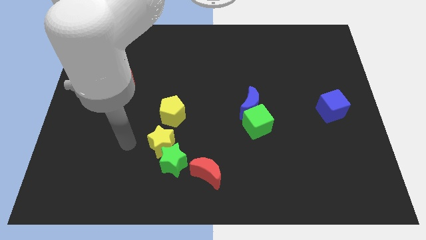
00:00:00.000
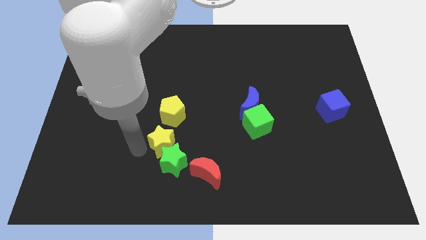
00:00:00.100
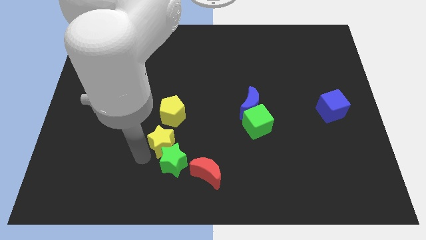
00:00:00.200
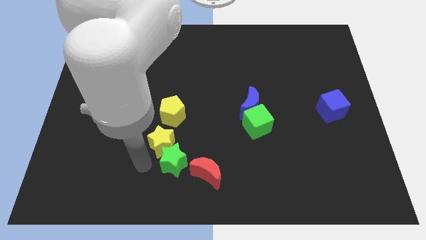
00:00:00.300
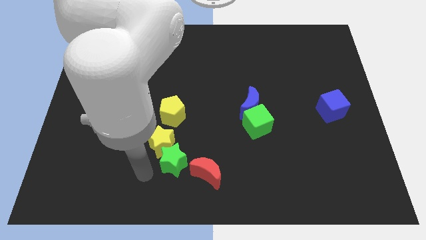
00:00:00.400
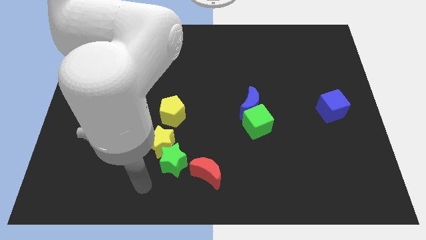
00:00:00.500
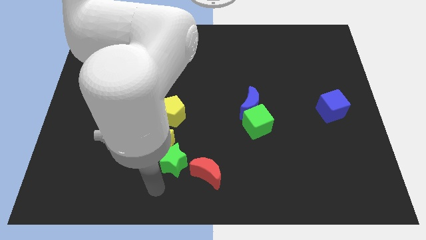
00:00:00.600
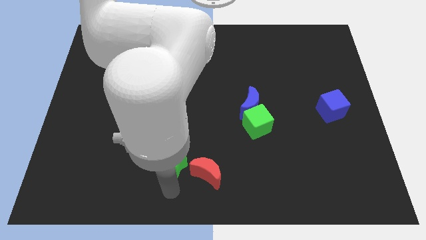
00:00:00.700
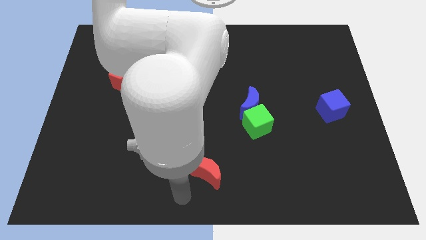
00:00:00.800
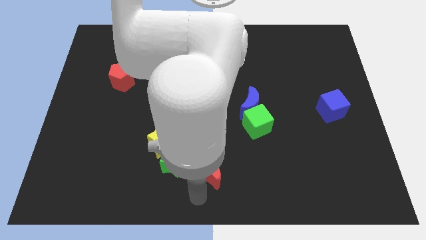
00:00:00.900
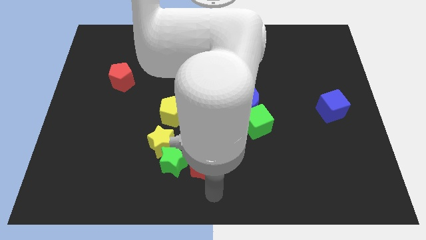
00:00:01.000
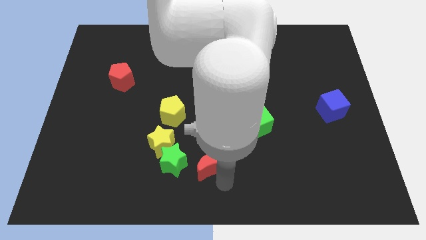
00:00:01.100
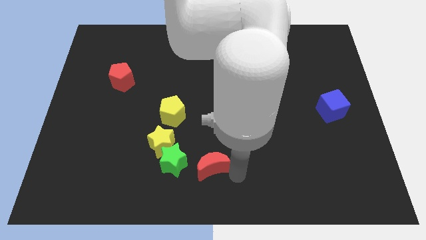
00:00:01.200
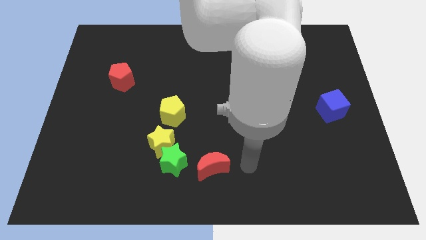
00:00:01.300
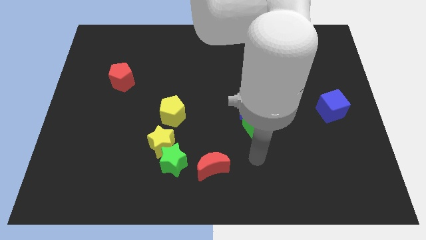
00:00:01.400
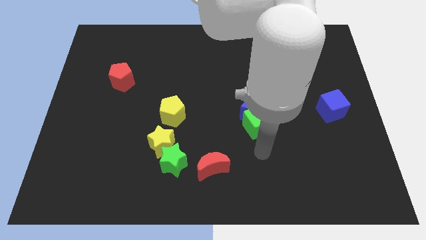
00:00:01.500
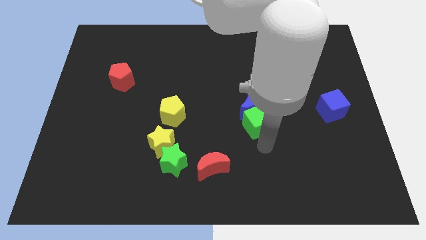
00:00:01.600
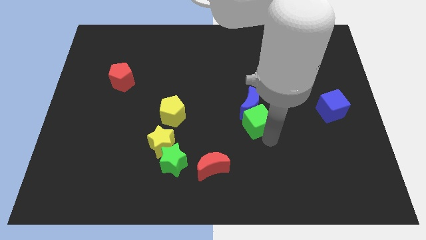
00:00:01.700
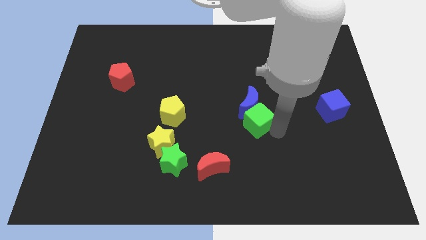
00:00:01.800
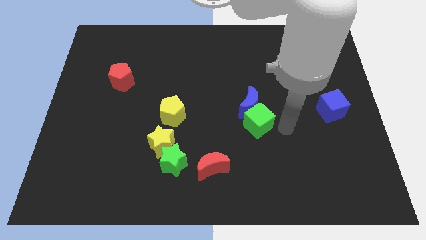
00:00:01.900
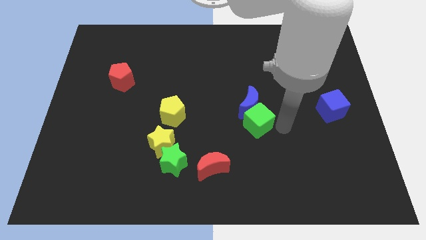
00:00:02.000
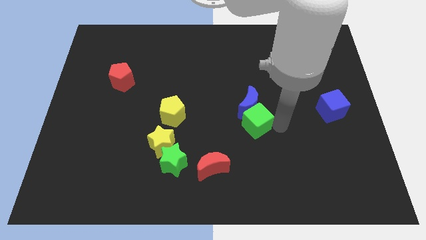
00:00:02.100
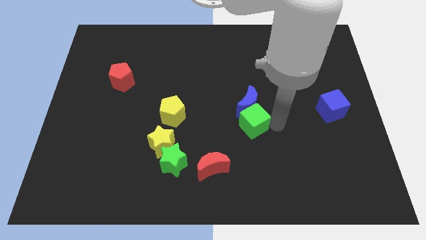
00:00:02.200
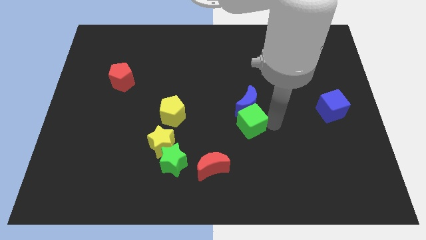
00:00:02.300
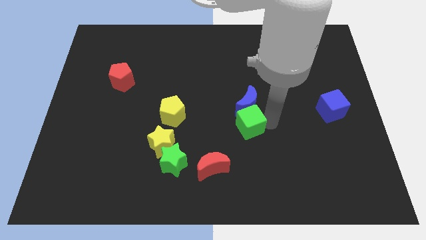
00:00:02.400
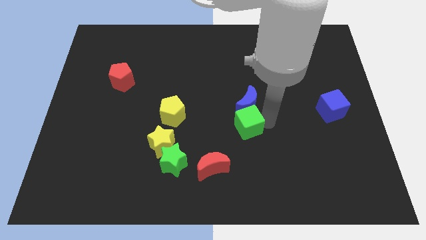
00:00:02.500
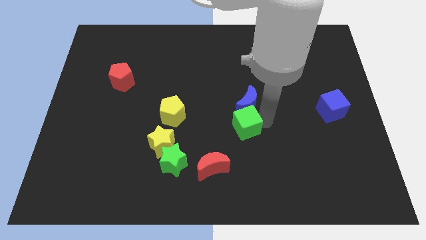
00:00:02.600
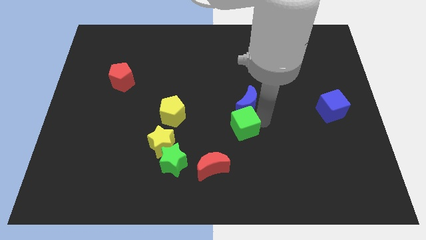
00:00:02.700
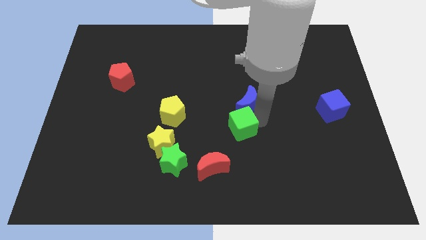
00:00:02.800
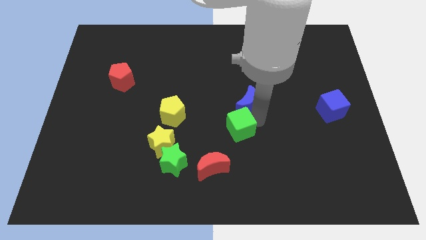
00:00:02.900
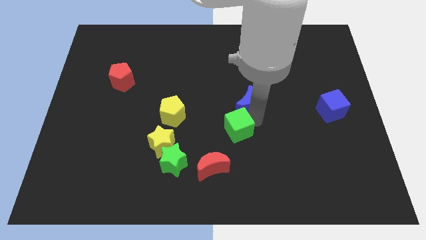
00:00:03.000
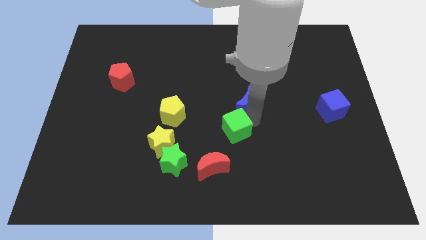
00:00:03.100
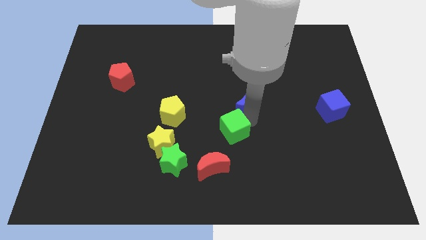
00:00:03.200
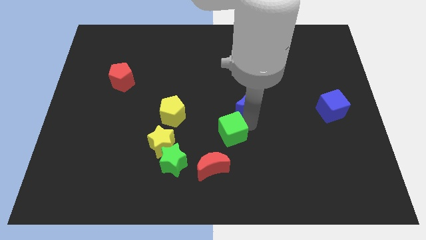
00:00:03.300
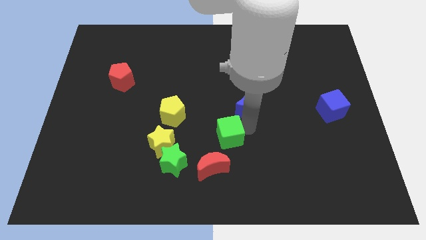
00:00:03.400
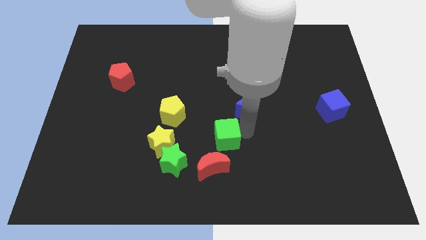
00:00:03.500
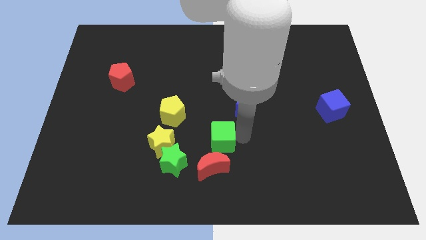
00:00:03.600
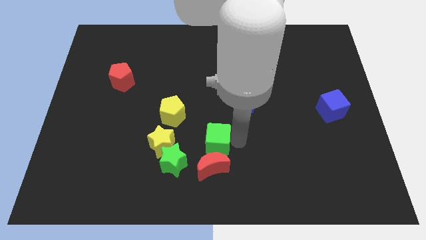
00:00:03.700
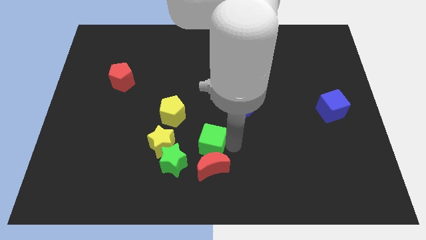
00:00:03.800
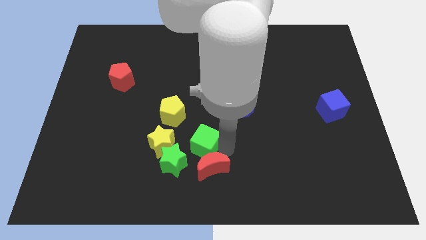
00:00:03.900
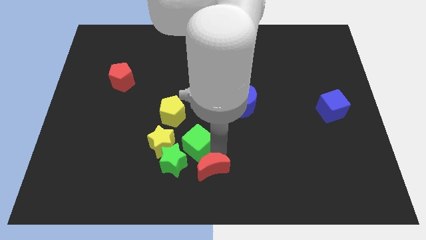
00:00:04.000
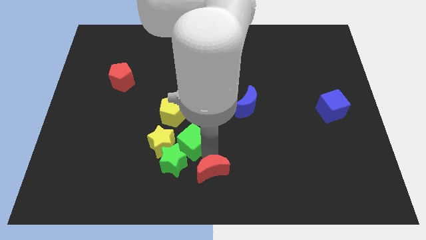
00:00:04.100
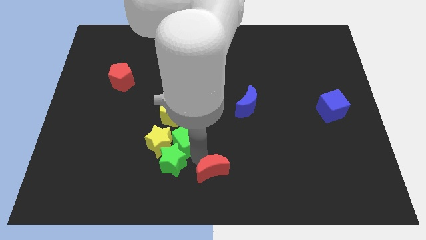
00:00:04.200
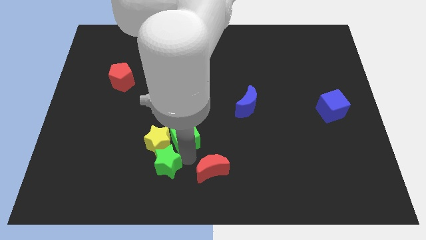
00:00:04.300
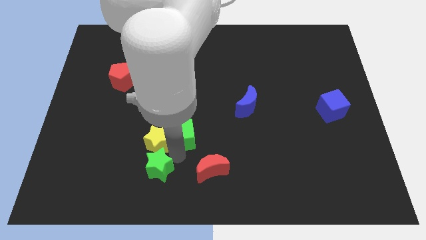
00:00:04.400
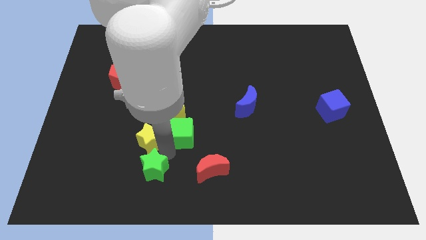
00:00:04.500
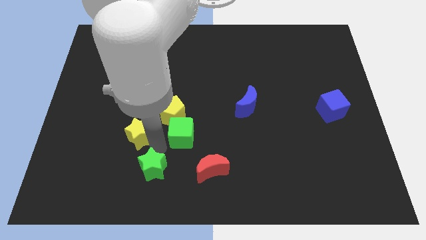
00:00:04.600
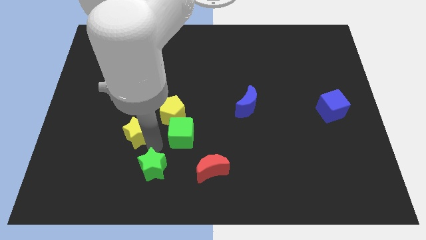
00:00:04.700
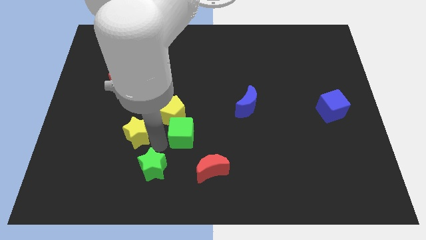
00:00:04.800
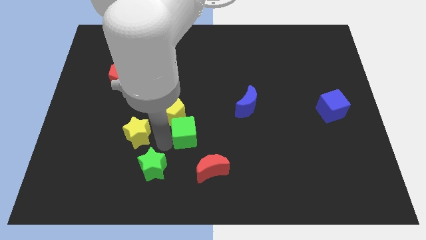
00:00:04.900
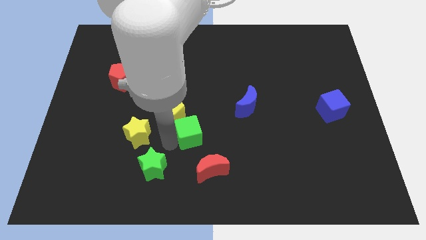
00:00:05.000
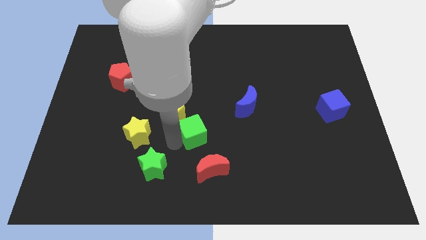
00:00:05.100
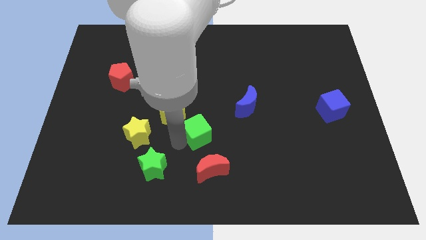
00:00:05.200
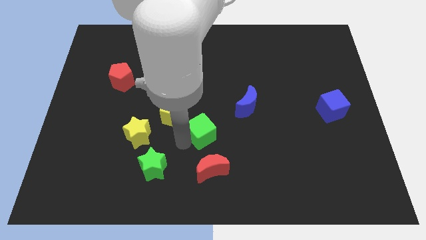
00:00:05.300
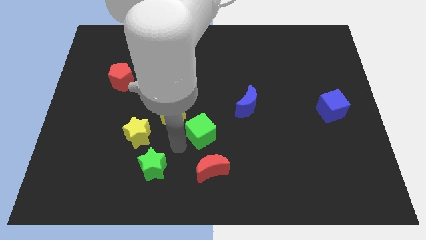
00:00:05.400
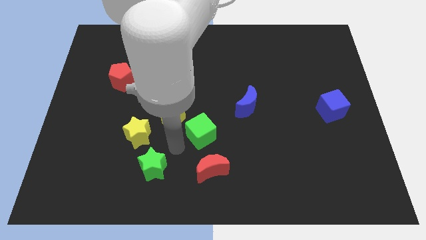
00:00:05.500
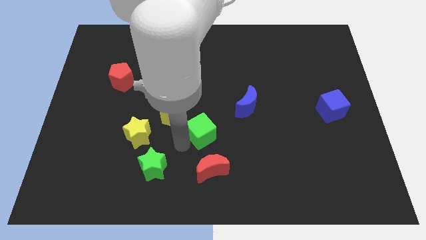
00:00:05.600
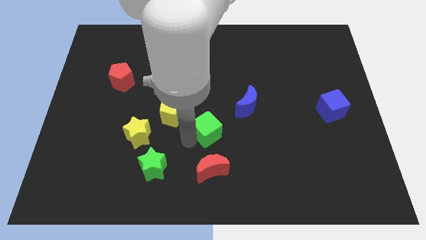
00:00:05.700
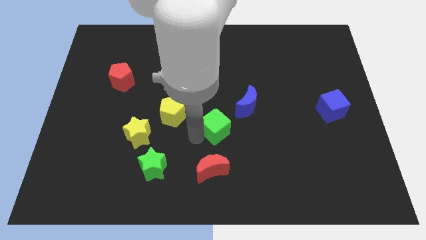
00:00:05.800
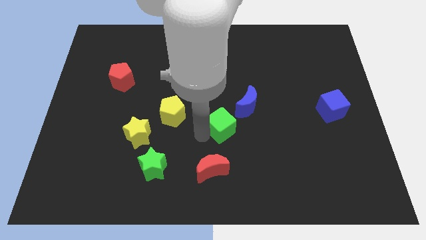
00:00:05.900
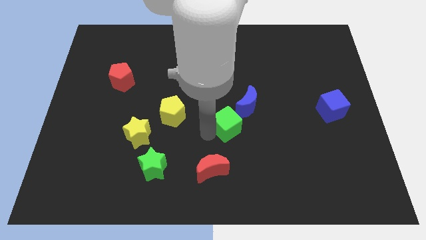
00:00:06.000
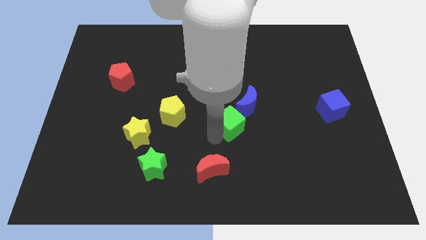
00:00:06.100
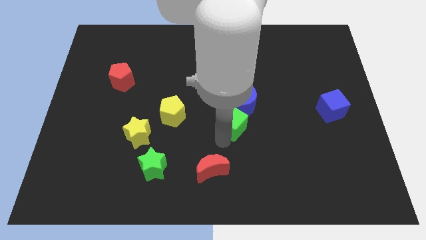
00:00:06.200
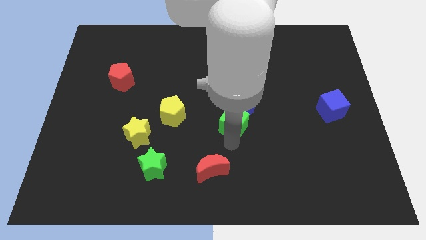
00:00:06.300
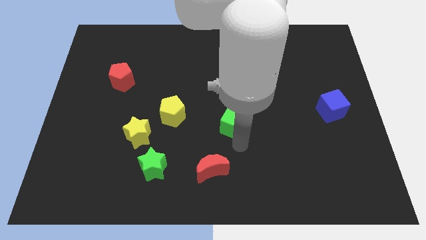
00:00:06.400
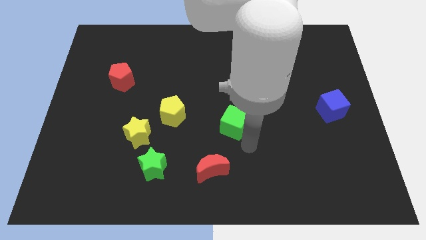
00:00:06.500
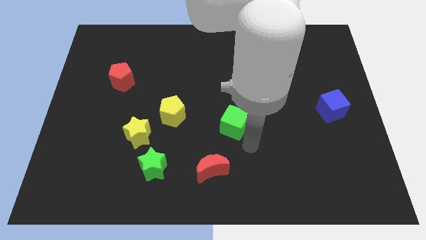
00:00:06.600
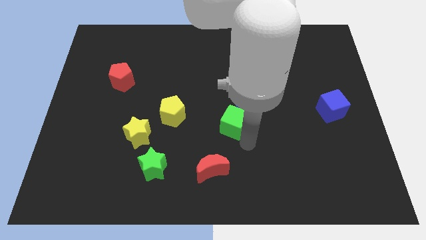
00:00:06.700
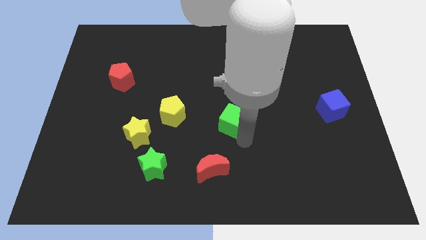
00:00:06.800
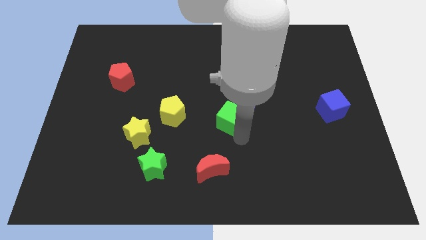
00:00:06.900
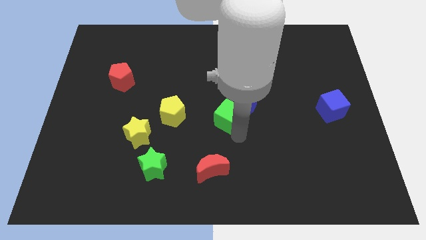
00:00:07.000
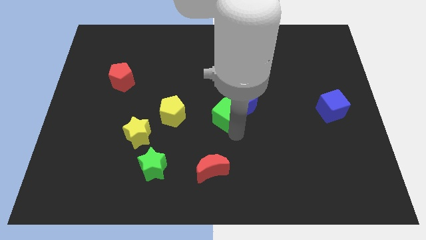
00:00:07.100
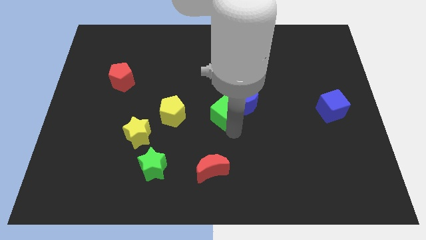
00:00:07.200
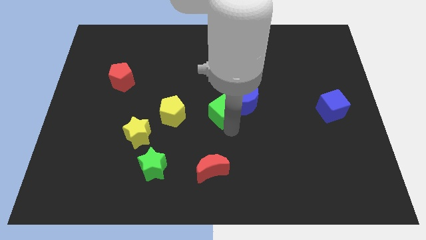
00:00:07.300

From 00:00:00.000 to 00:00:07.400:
push the green cube a little upwards and then left

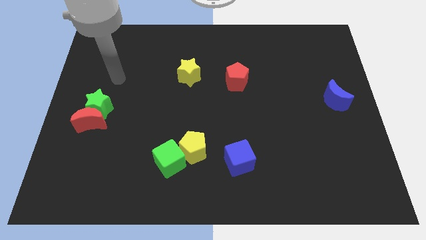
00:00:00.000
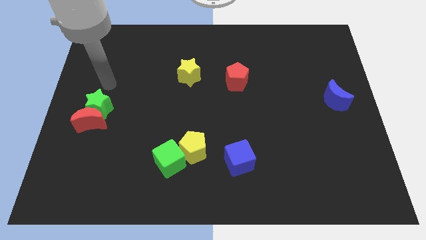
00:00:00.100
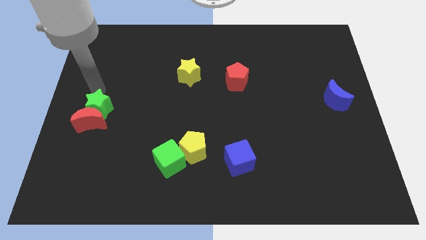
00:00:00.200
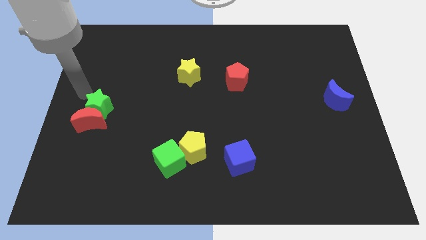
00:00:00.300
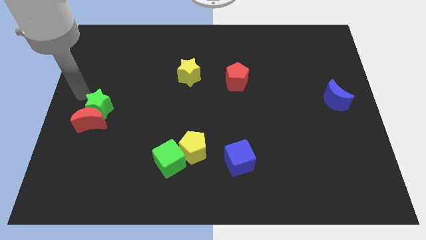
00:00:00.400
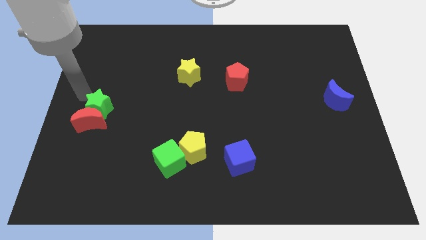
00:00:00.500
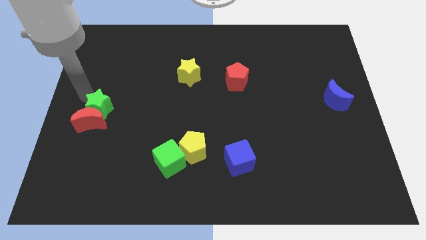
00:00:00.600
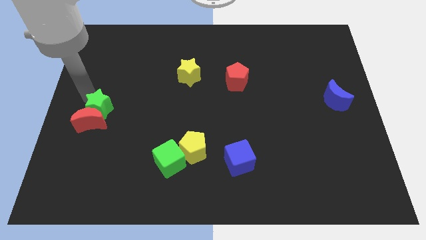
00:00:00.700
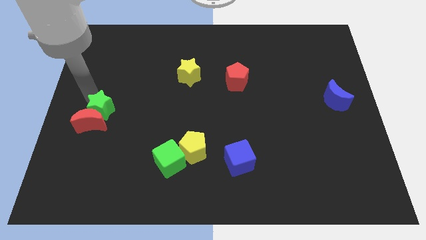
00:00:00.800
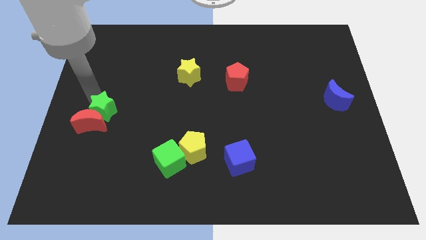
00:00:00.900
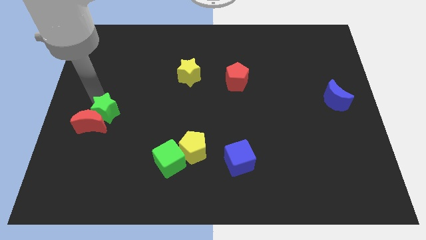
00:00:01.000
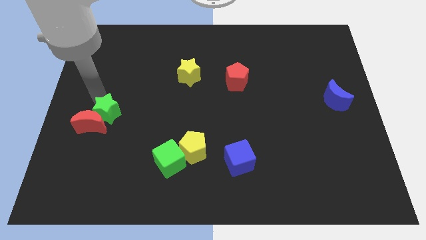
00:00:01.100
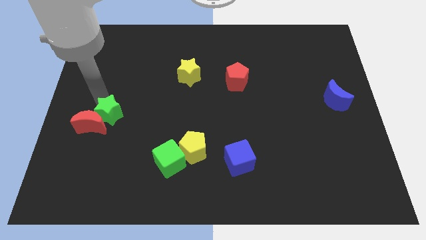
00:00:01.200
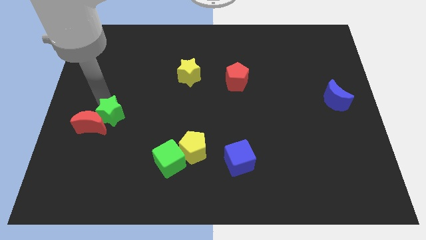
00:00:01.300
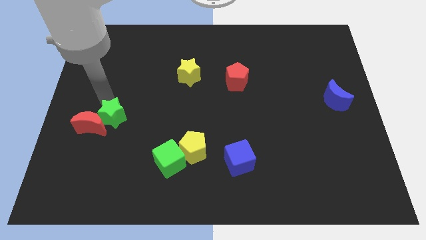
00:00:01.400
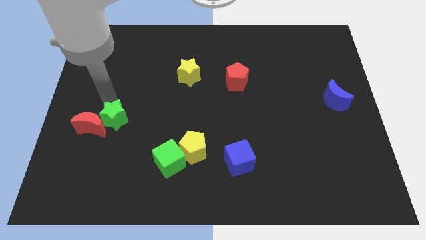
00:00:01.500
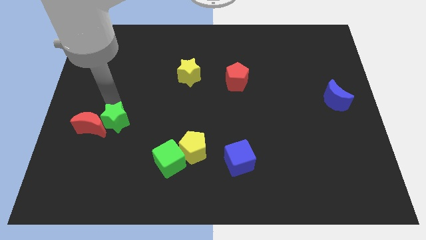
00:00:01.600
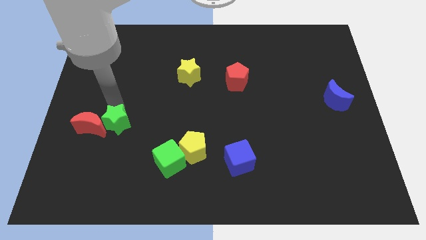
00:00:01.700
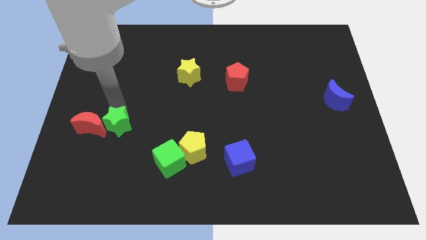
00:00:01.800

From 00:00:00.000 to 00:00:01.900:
slightly slide the green star down and to the right diagonally
